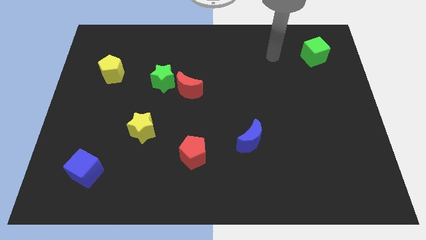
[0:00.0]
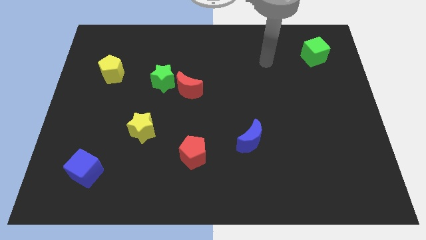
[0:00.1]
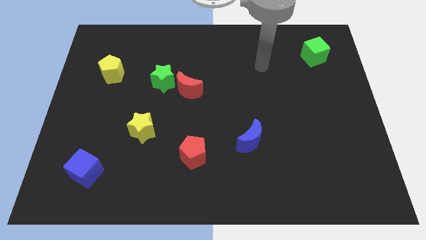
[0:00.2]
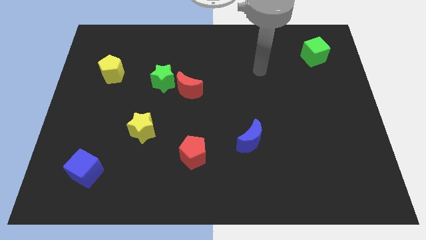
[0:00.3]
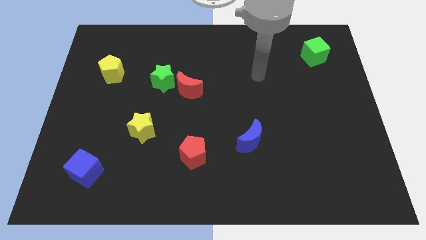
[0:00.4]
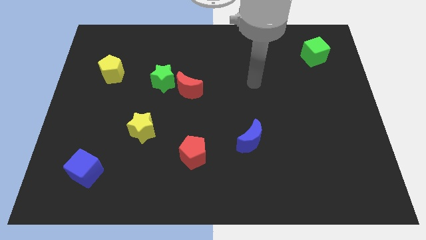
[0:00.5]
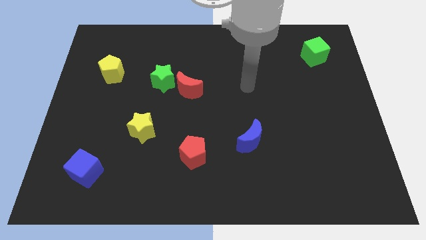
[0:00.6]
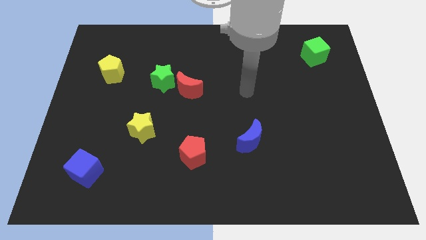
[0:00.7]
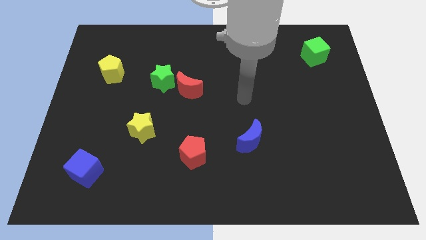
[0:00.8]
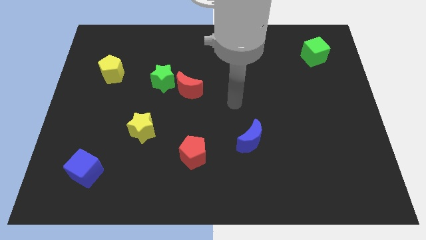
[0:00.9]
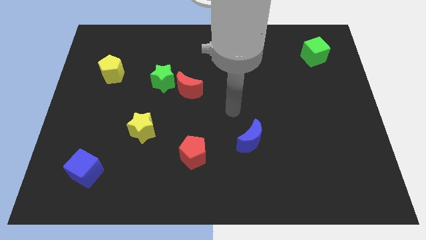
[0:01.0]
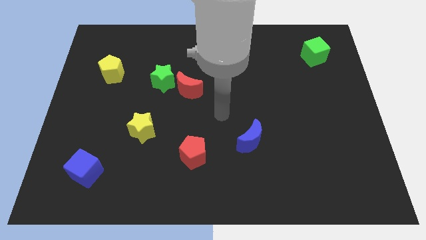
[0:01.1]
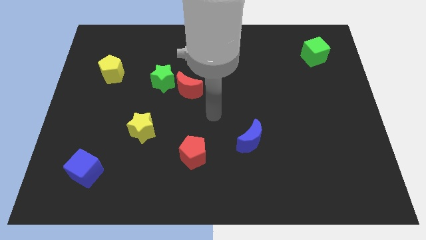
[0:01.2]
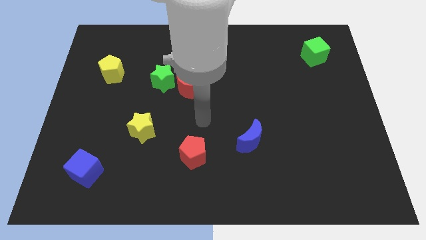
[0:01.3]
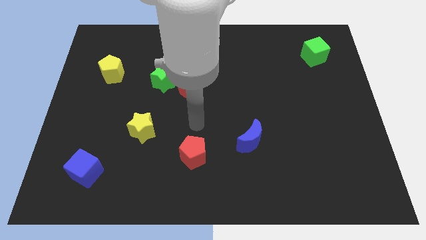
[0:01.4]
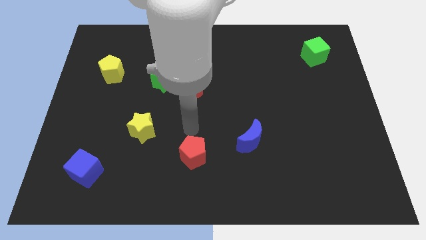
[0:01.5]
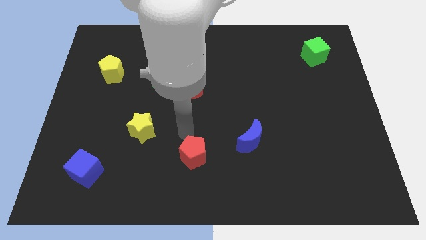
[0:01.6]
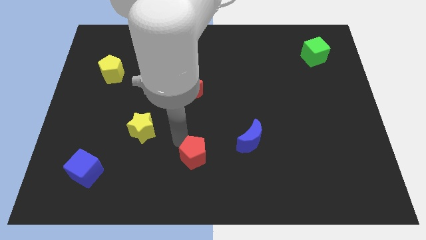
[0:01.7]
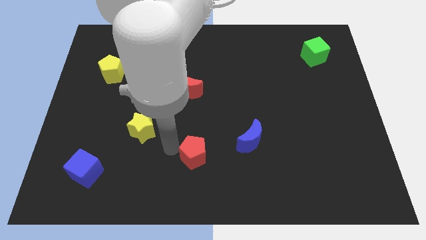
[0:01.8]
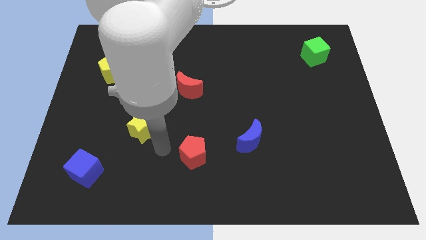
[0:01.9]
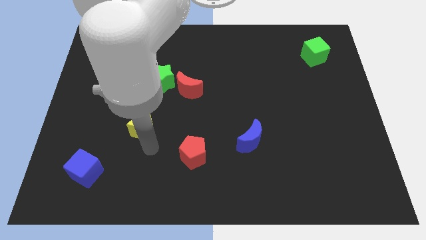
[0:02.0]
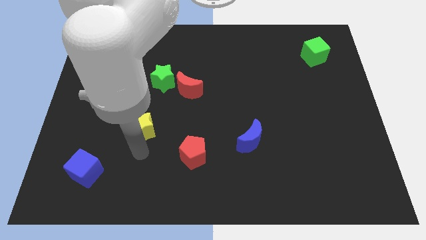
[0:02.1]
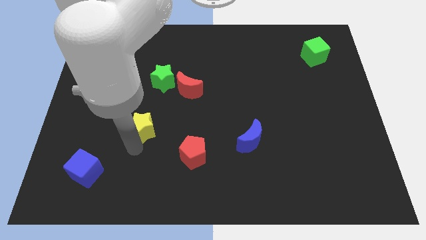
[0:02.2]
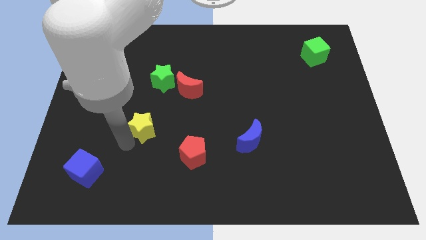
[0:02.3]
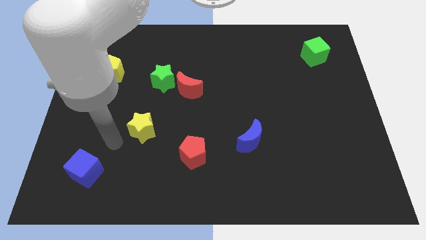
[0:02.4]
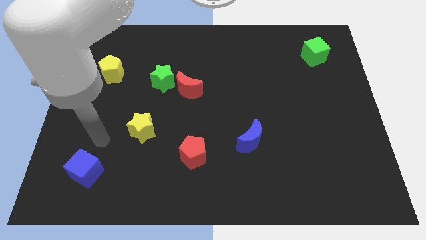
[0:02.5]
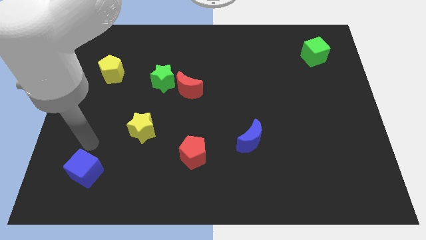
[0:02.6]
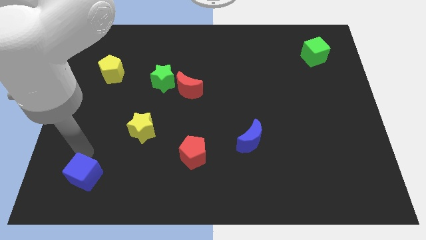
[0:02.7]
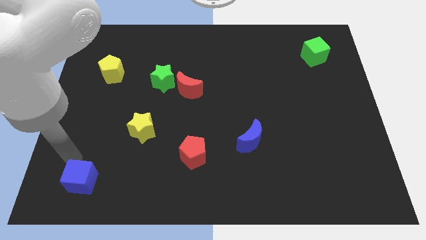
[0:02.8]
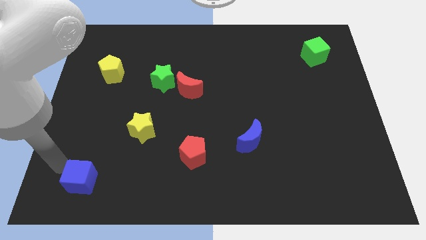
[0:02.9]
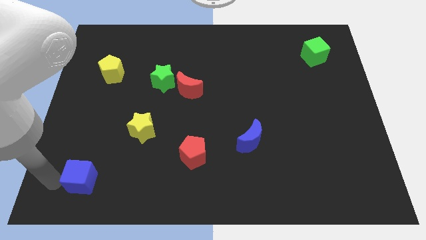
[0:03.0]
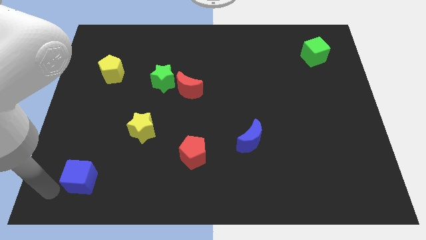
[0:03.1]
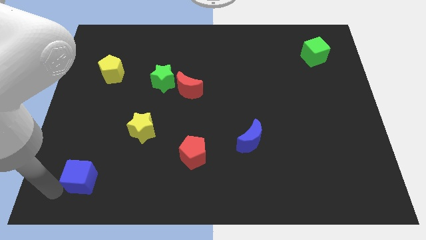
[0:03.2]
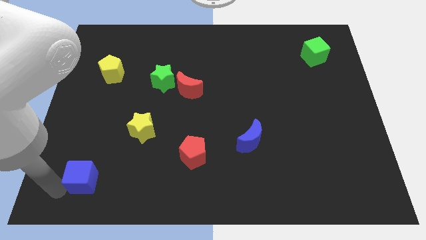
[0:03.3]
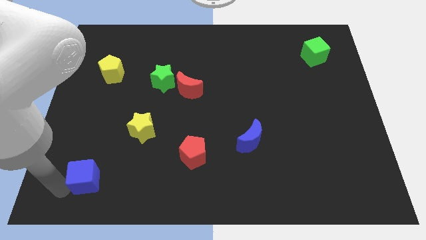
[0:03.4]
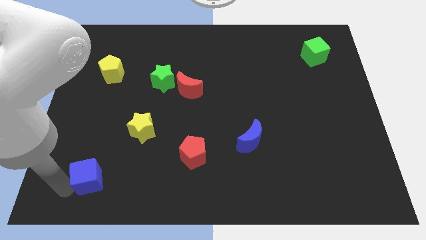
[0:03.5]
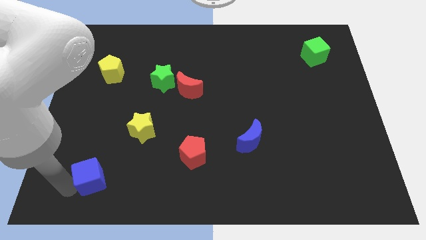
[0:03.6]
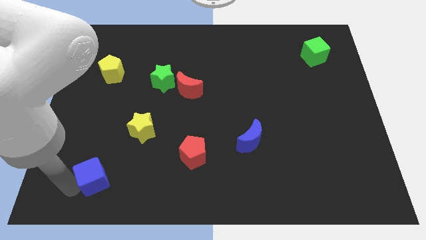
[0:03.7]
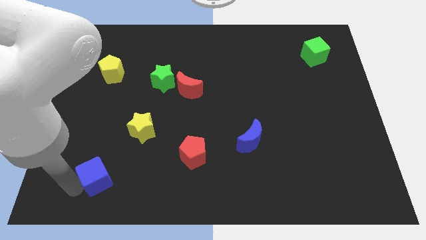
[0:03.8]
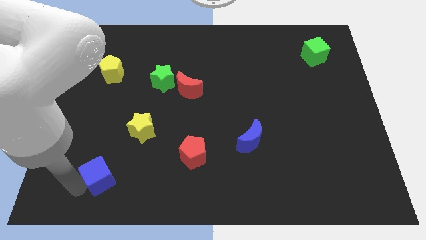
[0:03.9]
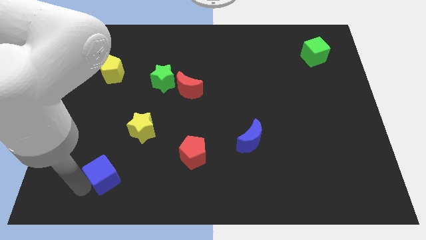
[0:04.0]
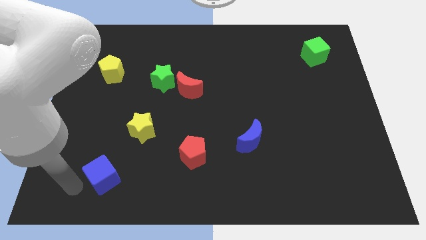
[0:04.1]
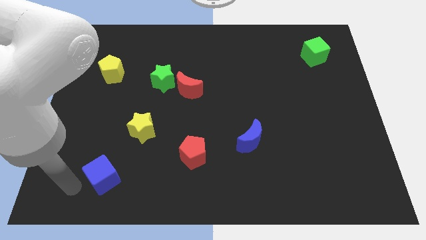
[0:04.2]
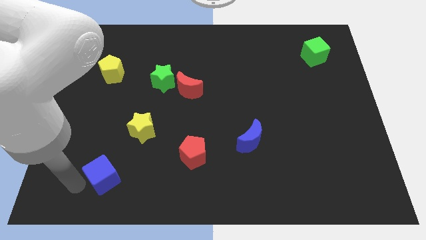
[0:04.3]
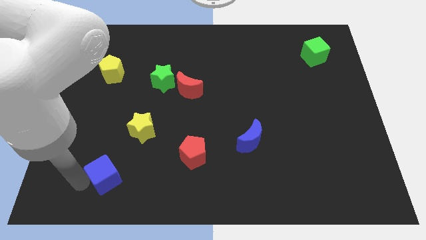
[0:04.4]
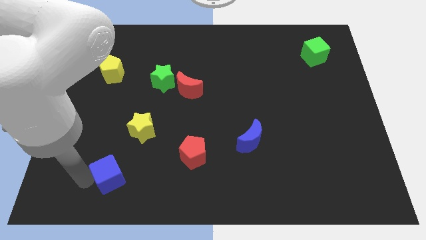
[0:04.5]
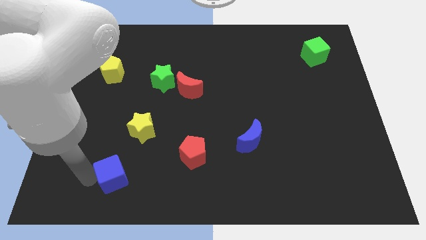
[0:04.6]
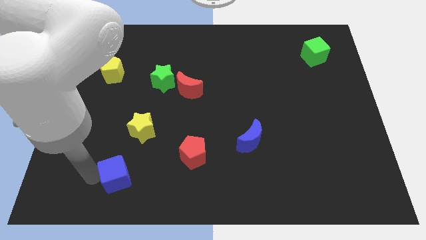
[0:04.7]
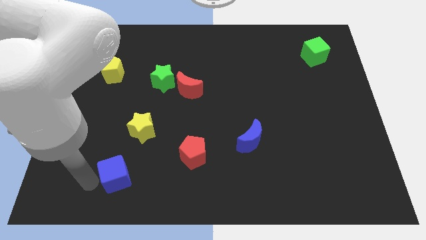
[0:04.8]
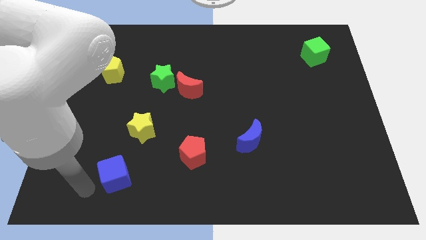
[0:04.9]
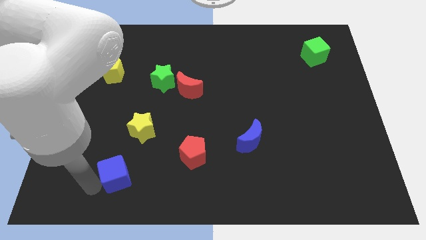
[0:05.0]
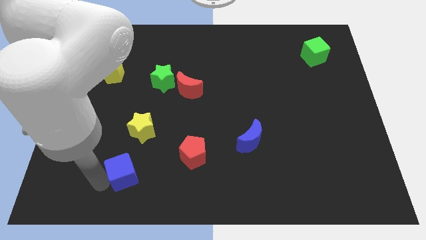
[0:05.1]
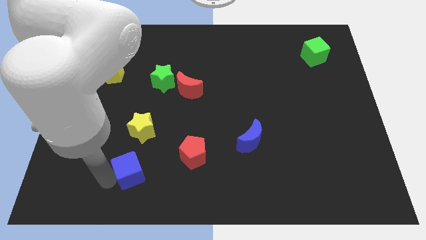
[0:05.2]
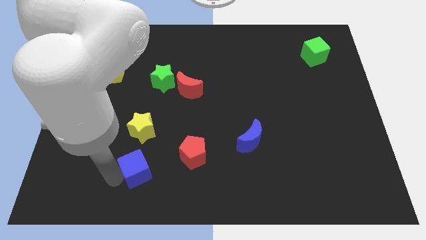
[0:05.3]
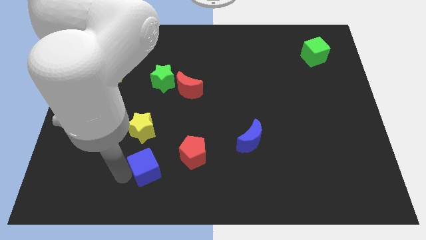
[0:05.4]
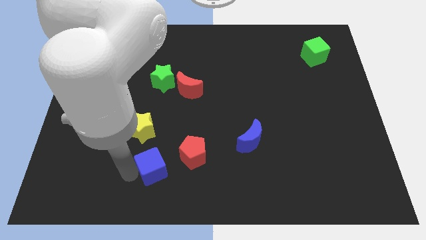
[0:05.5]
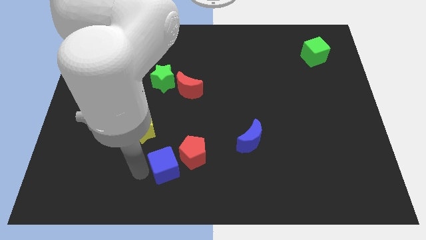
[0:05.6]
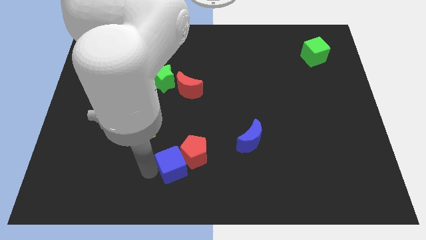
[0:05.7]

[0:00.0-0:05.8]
put the blue cube towards the red pentagon
